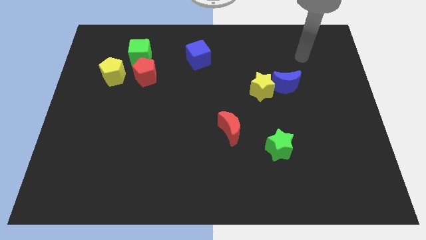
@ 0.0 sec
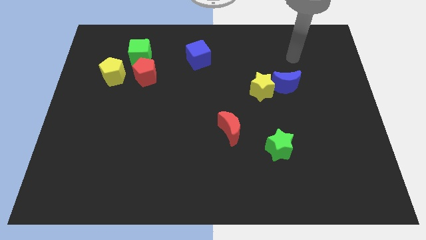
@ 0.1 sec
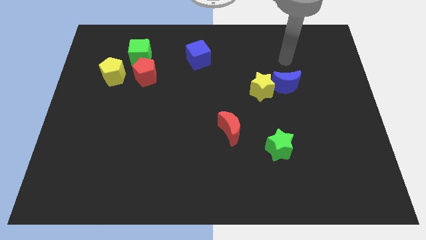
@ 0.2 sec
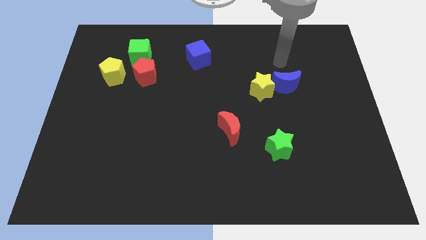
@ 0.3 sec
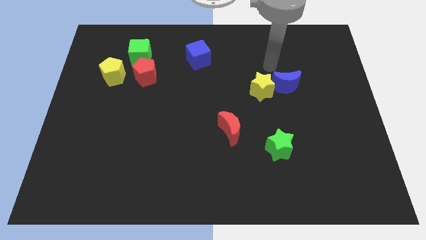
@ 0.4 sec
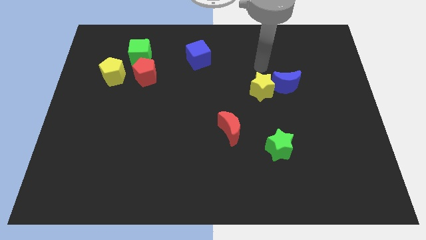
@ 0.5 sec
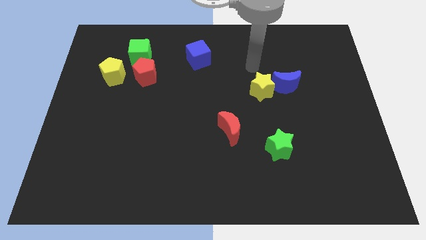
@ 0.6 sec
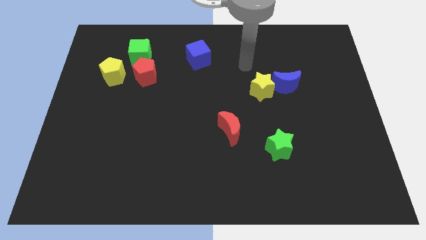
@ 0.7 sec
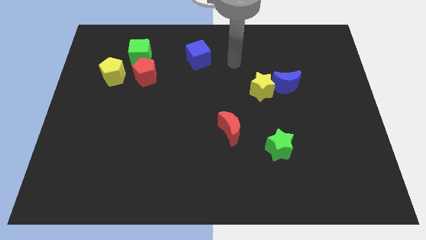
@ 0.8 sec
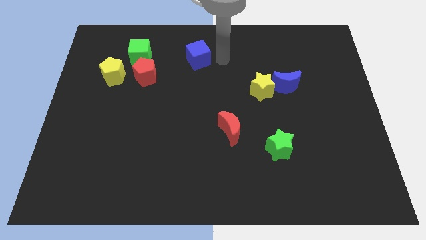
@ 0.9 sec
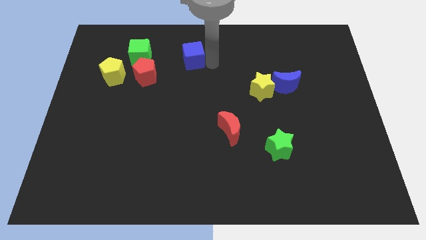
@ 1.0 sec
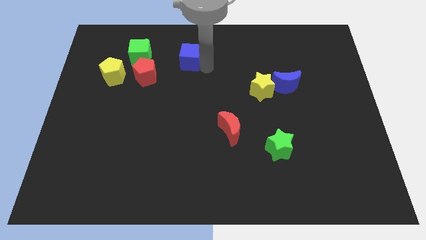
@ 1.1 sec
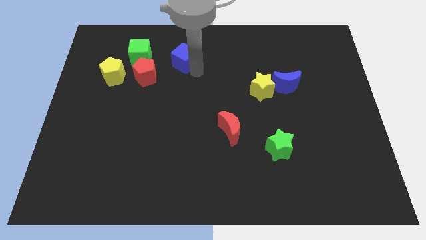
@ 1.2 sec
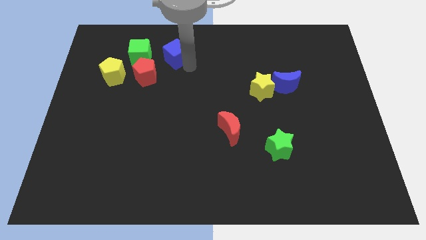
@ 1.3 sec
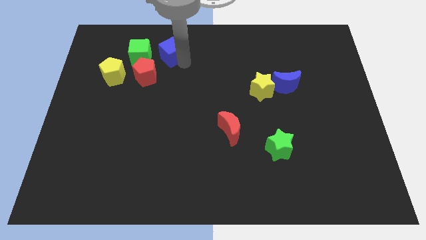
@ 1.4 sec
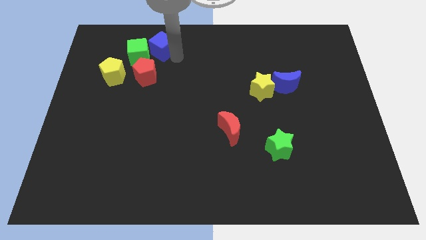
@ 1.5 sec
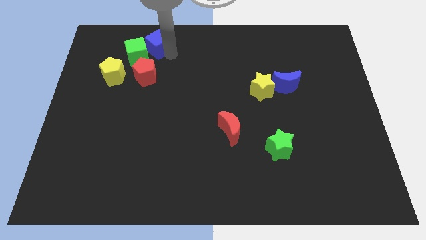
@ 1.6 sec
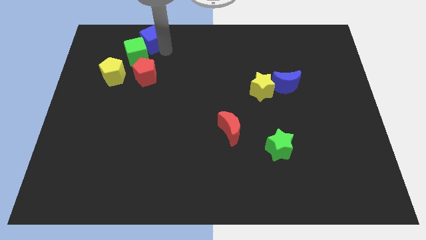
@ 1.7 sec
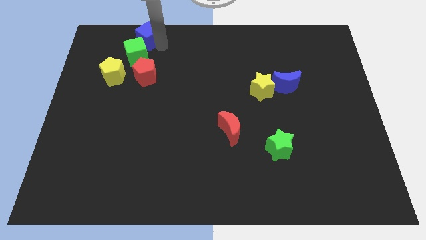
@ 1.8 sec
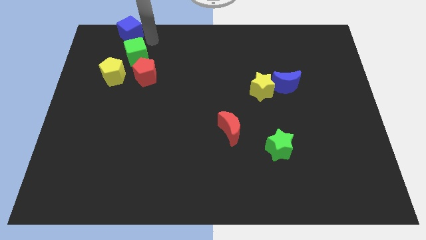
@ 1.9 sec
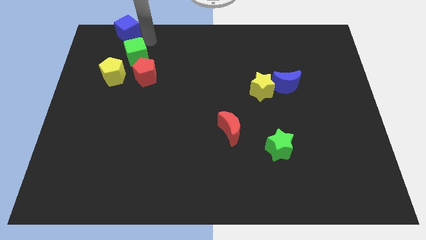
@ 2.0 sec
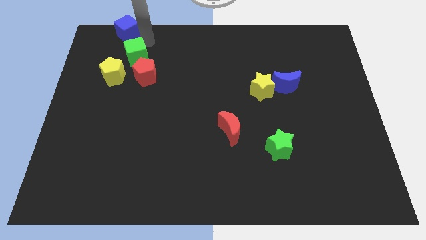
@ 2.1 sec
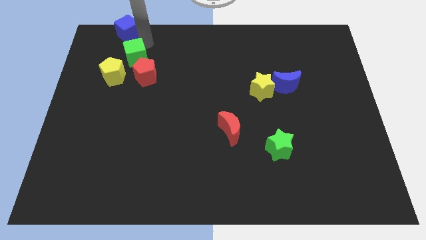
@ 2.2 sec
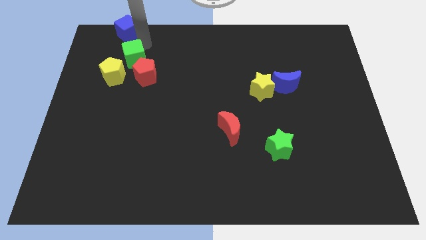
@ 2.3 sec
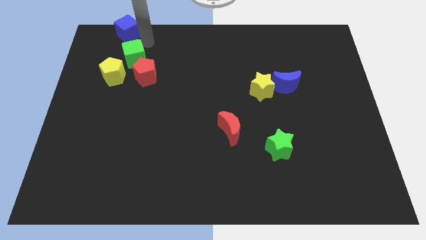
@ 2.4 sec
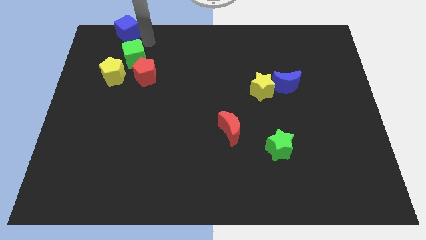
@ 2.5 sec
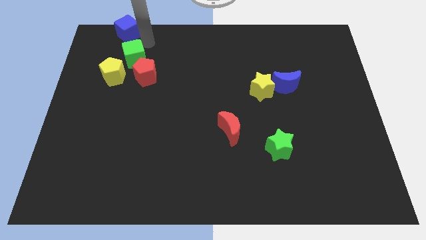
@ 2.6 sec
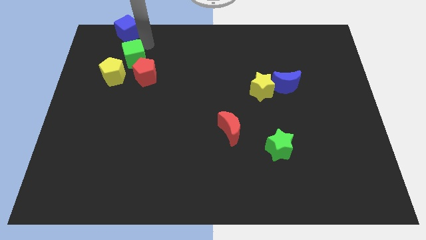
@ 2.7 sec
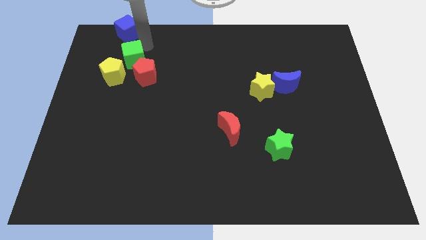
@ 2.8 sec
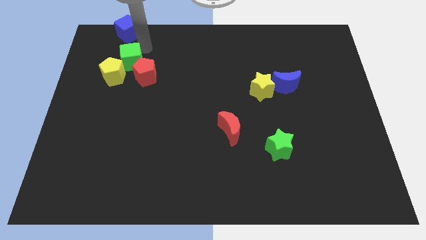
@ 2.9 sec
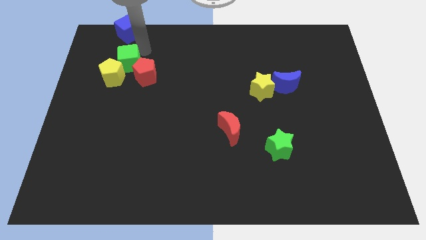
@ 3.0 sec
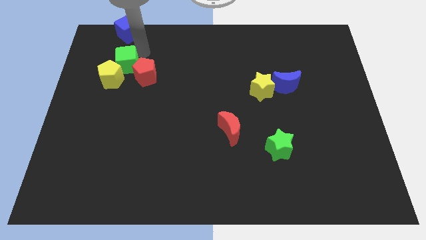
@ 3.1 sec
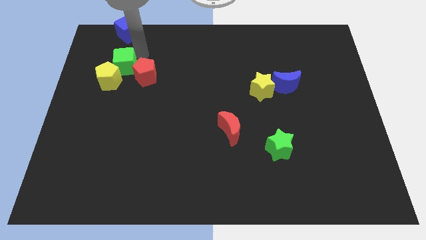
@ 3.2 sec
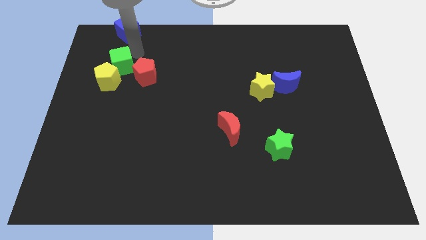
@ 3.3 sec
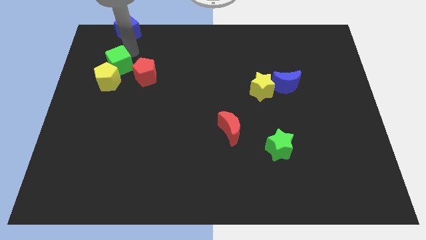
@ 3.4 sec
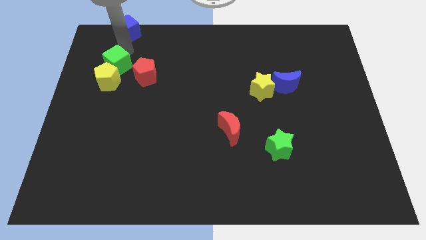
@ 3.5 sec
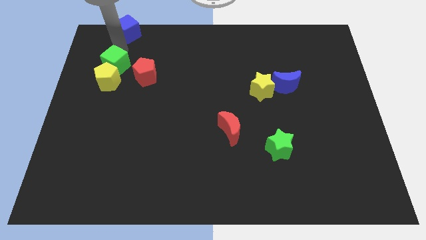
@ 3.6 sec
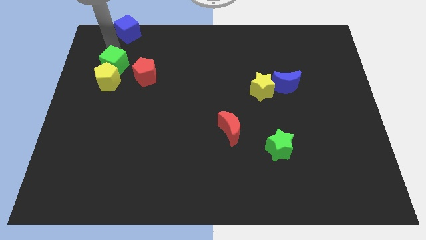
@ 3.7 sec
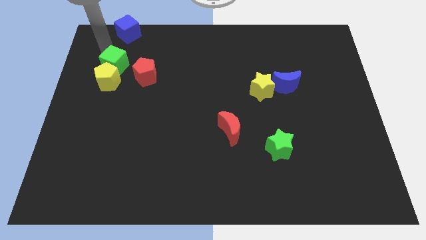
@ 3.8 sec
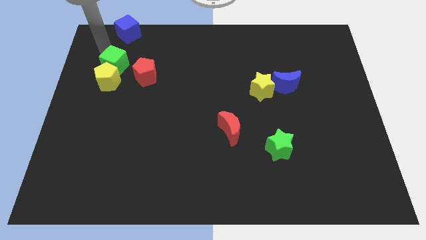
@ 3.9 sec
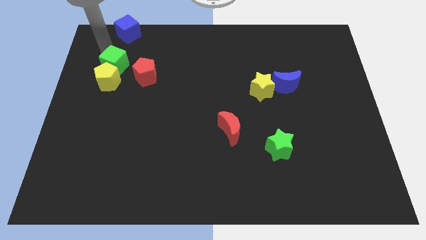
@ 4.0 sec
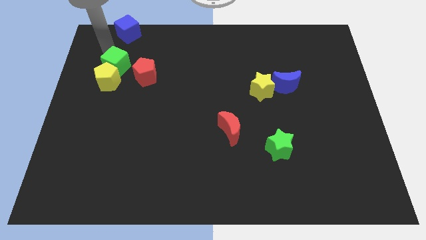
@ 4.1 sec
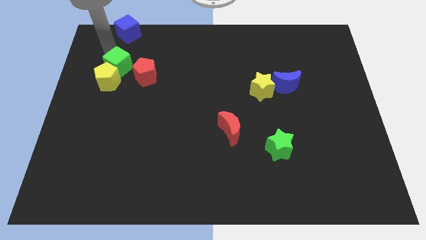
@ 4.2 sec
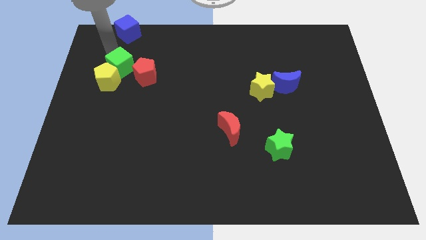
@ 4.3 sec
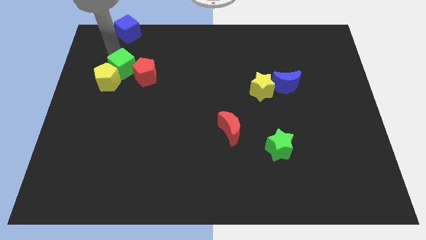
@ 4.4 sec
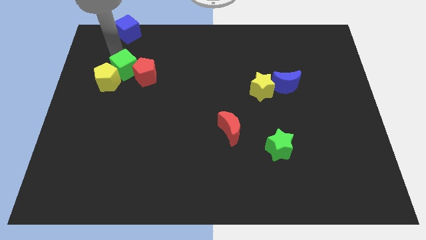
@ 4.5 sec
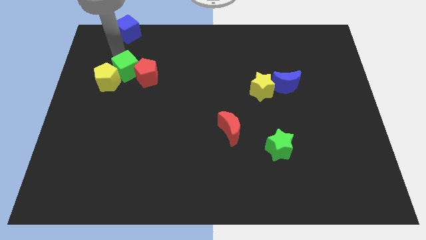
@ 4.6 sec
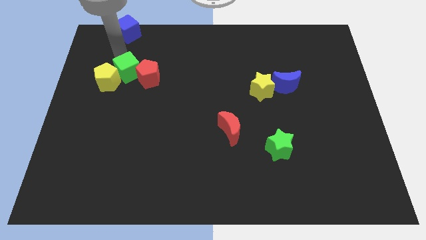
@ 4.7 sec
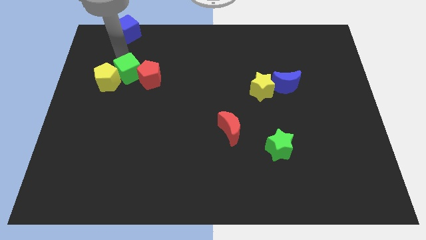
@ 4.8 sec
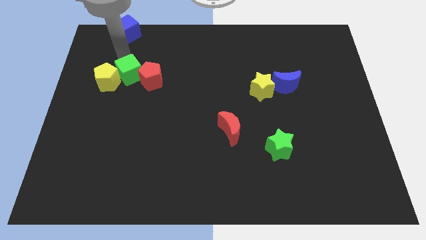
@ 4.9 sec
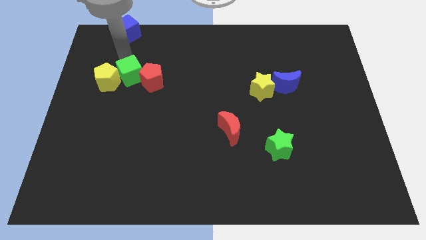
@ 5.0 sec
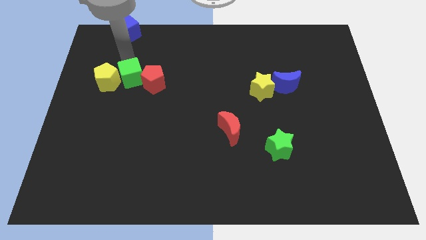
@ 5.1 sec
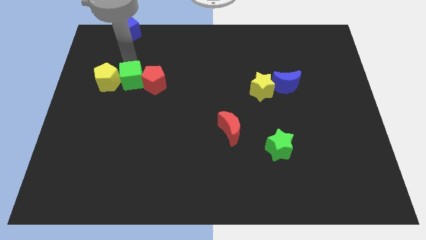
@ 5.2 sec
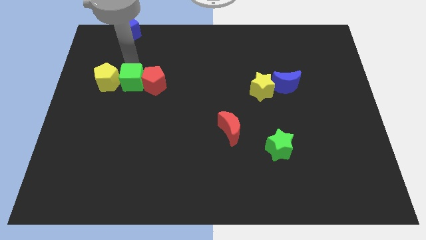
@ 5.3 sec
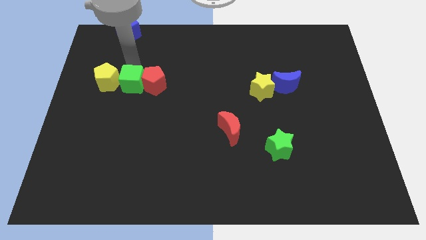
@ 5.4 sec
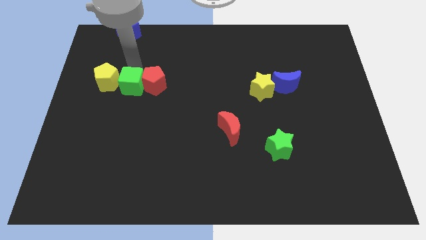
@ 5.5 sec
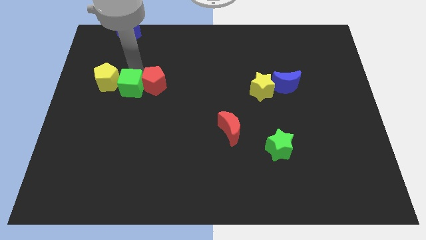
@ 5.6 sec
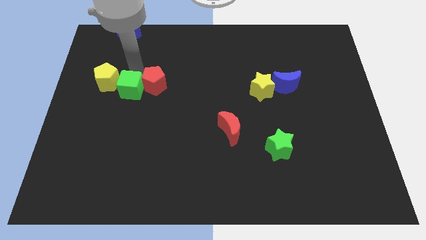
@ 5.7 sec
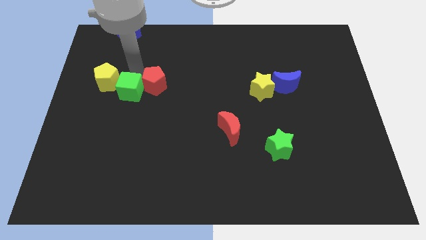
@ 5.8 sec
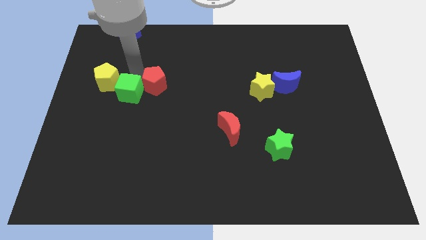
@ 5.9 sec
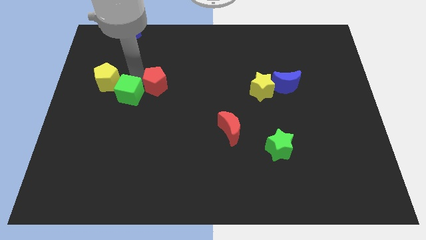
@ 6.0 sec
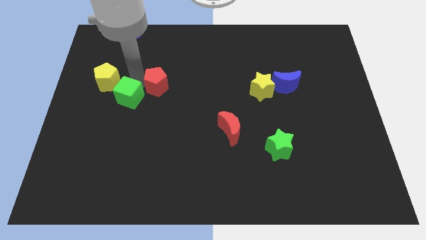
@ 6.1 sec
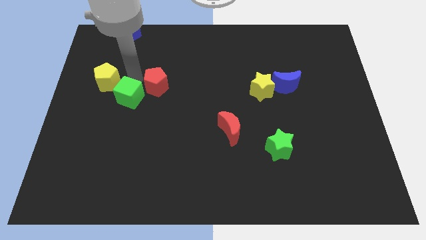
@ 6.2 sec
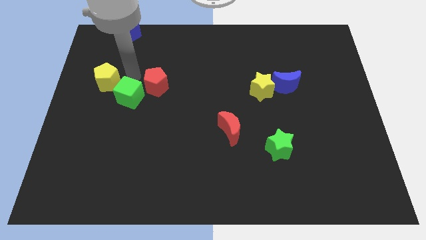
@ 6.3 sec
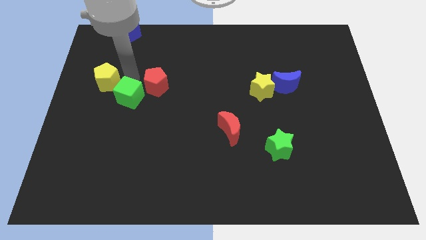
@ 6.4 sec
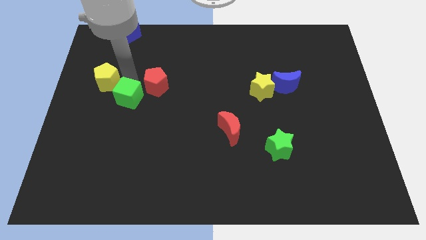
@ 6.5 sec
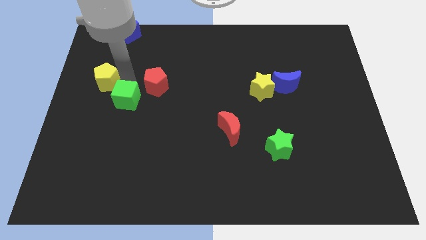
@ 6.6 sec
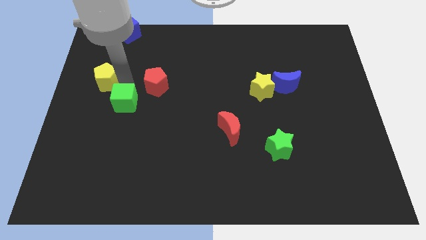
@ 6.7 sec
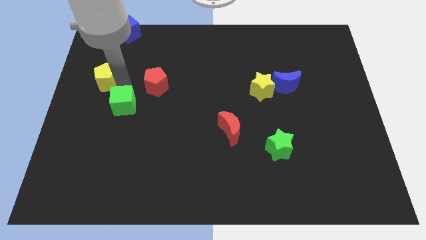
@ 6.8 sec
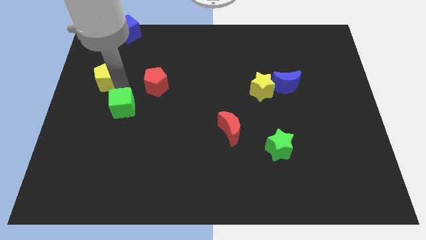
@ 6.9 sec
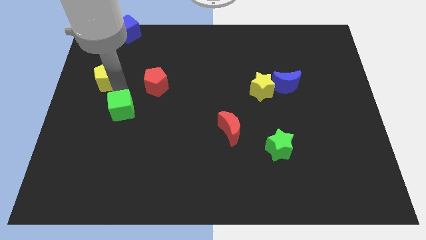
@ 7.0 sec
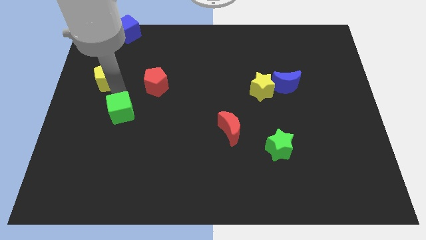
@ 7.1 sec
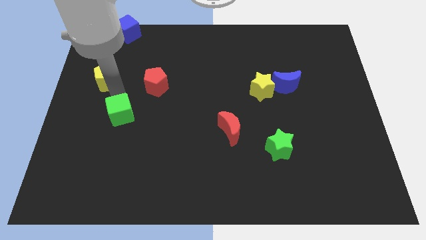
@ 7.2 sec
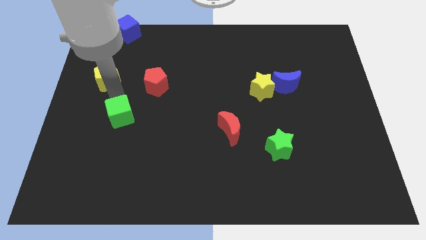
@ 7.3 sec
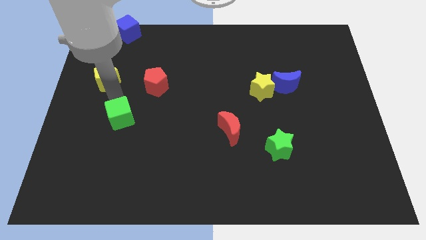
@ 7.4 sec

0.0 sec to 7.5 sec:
slide the green cube down

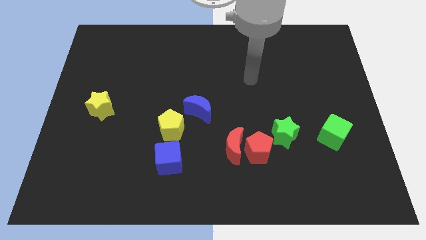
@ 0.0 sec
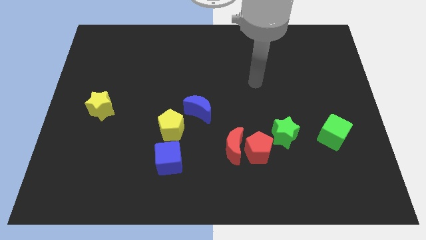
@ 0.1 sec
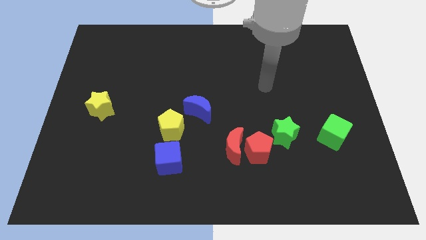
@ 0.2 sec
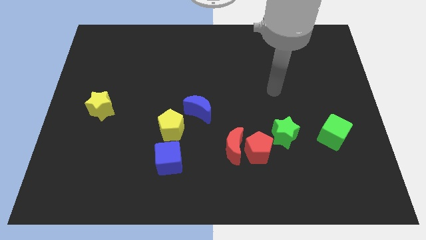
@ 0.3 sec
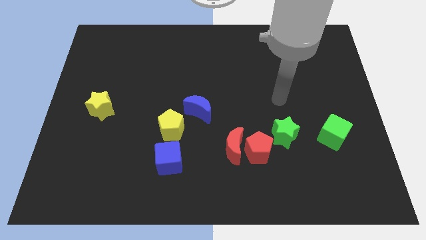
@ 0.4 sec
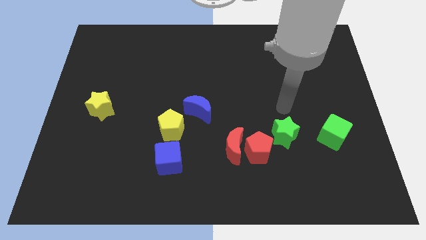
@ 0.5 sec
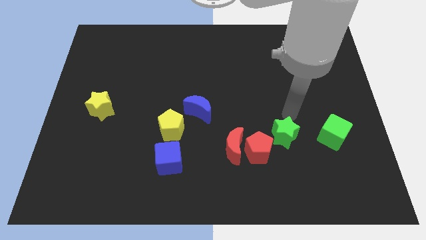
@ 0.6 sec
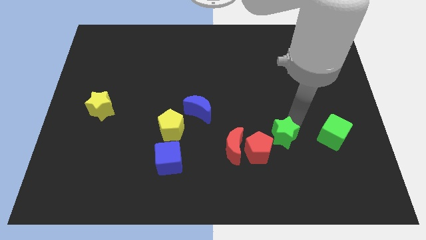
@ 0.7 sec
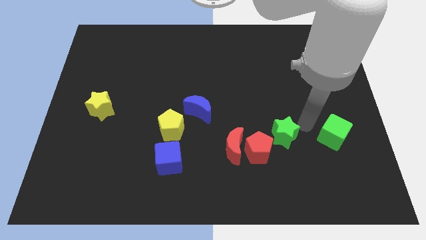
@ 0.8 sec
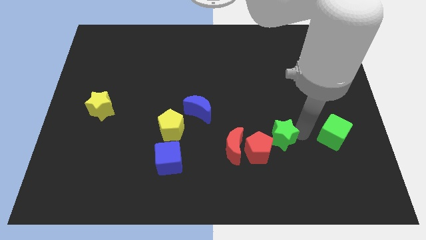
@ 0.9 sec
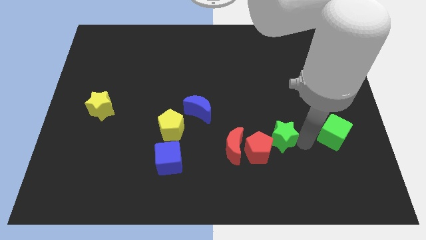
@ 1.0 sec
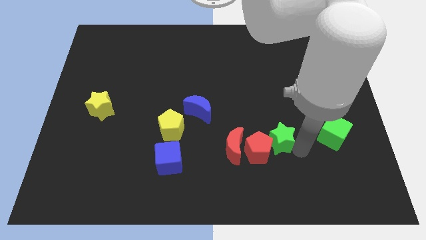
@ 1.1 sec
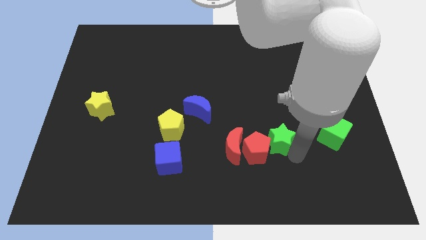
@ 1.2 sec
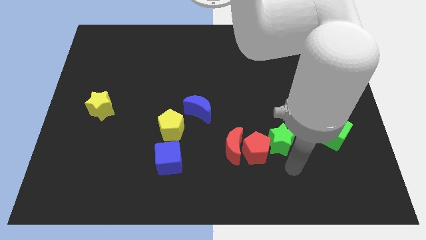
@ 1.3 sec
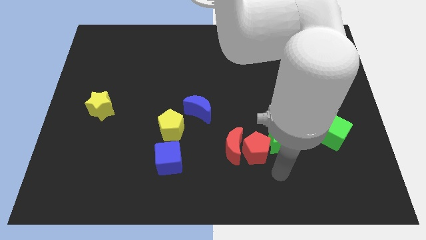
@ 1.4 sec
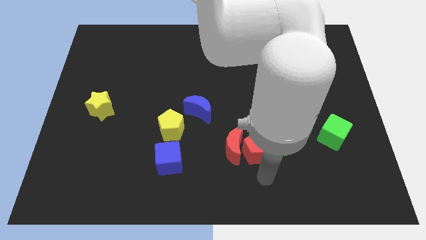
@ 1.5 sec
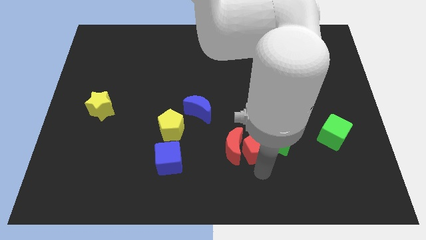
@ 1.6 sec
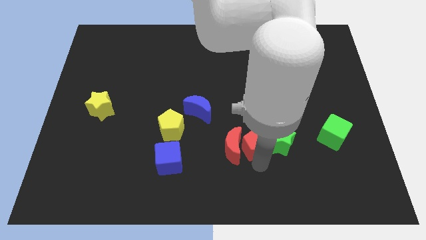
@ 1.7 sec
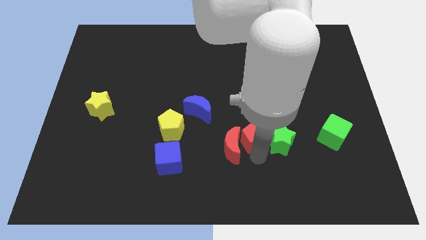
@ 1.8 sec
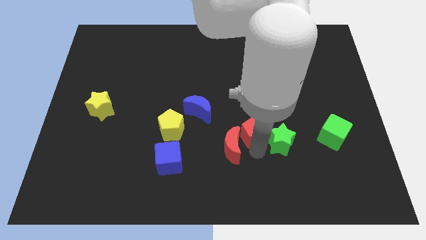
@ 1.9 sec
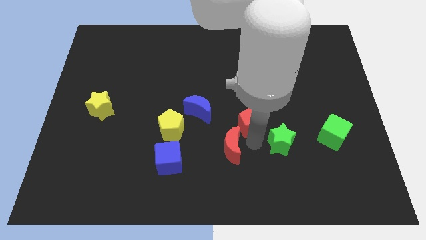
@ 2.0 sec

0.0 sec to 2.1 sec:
move the red pentagon a little bit upwards
